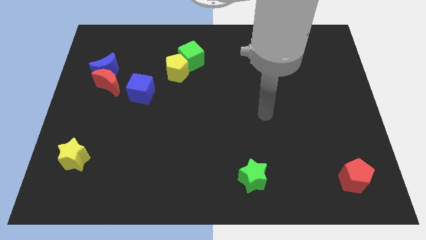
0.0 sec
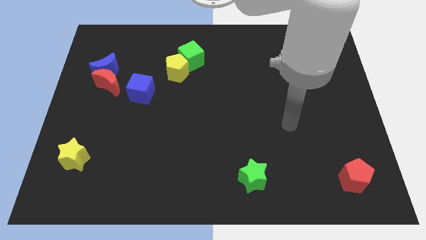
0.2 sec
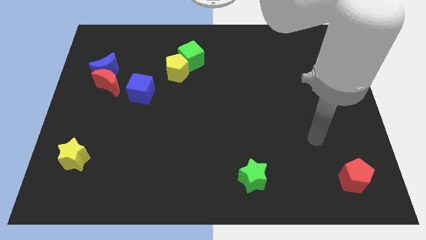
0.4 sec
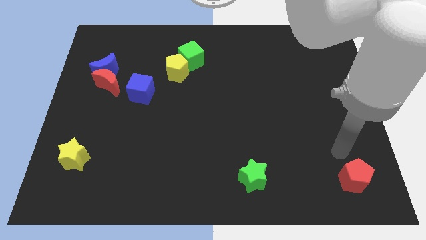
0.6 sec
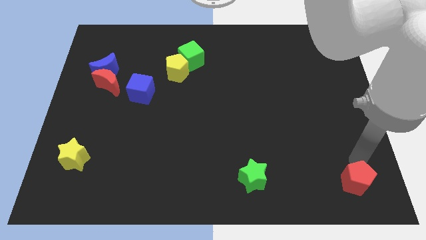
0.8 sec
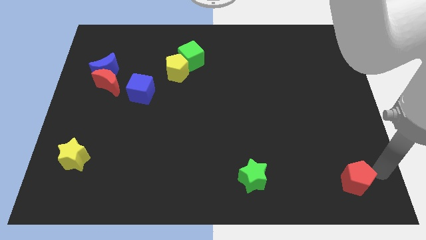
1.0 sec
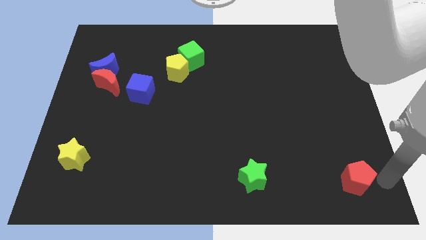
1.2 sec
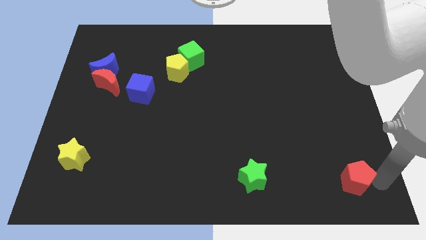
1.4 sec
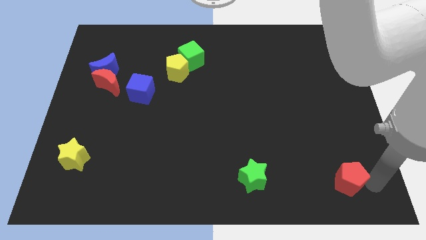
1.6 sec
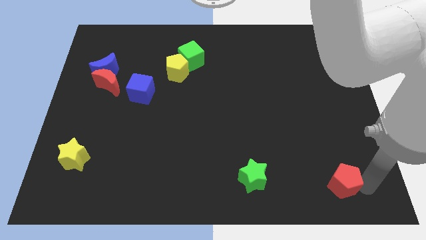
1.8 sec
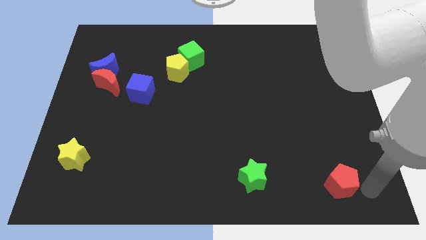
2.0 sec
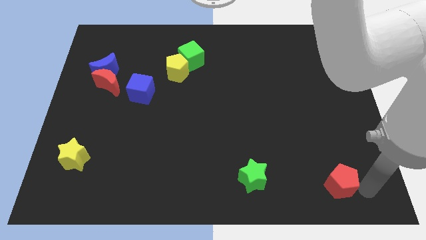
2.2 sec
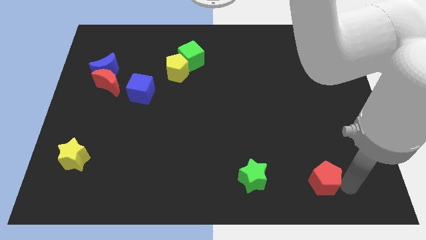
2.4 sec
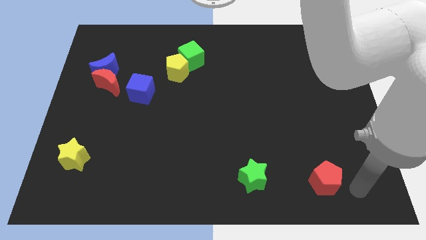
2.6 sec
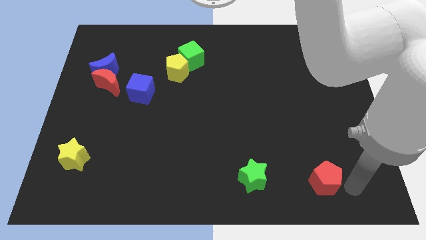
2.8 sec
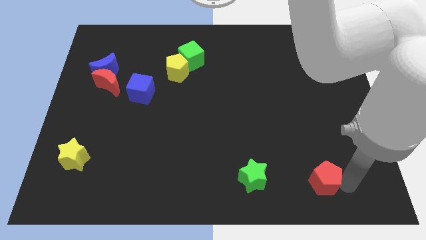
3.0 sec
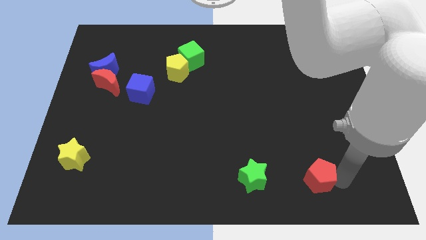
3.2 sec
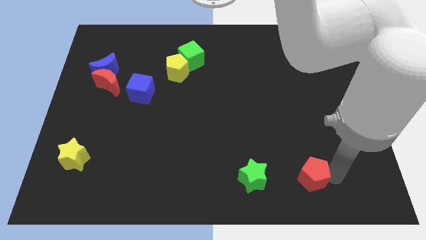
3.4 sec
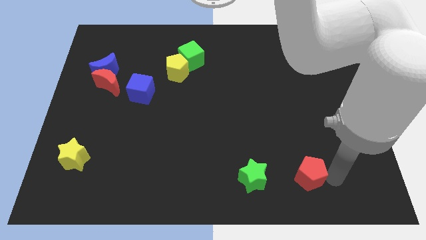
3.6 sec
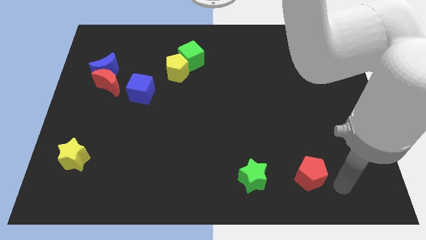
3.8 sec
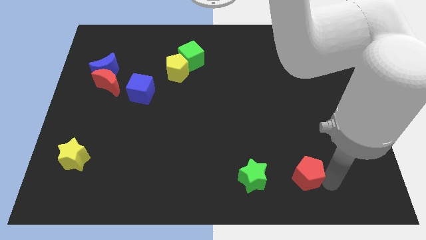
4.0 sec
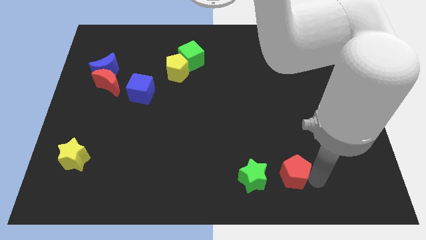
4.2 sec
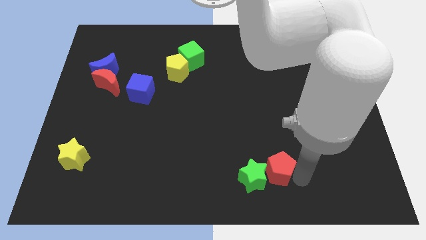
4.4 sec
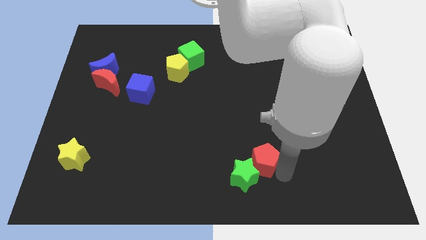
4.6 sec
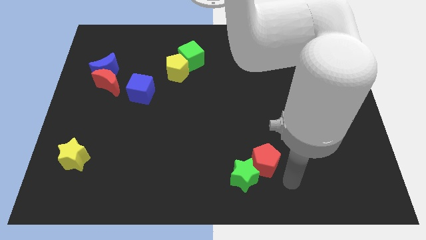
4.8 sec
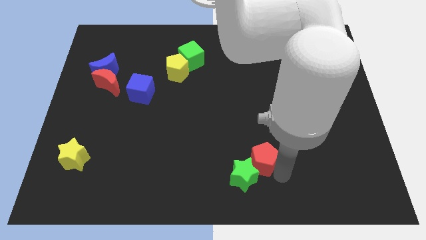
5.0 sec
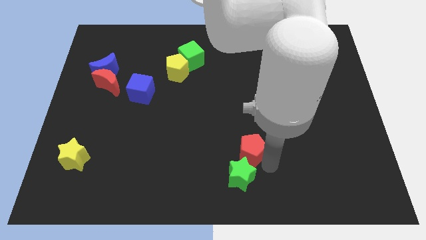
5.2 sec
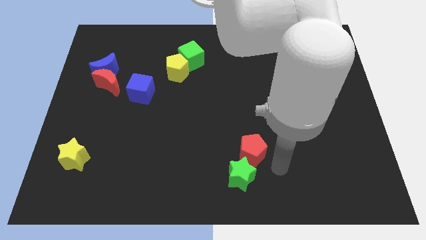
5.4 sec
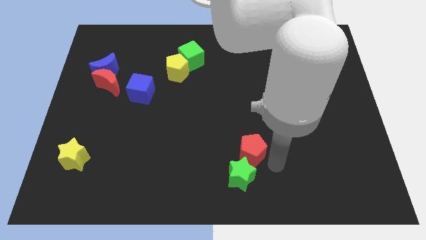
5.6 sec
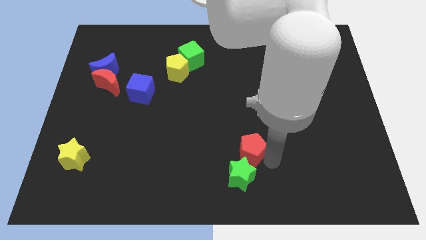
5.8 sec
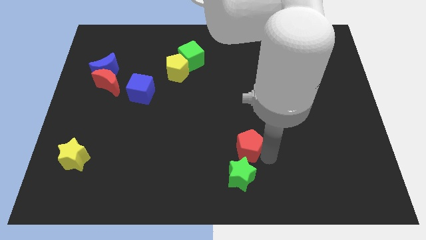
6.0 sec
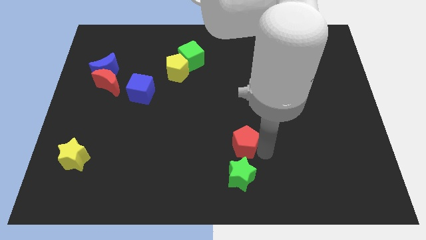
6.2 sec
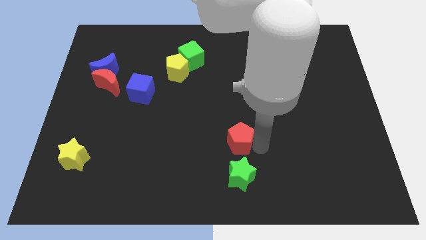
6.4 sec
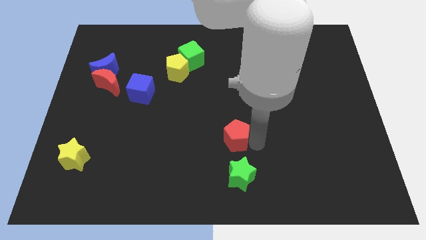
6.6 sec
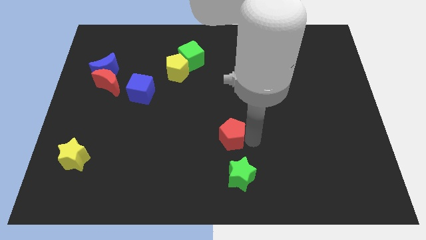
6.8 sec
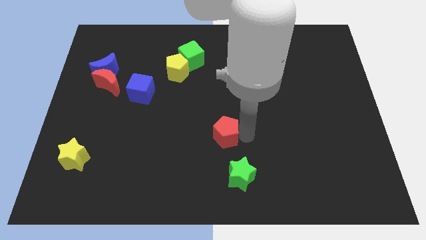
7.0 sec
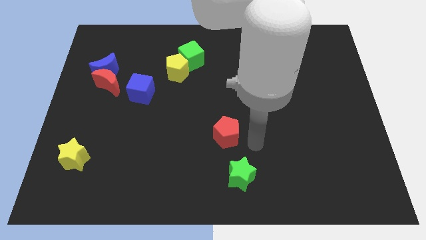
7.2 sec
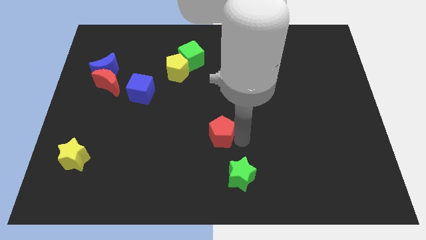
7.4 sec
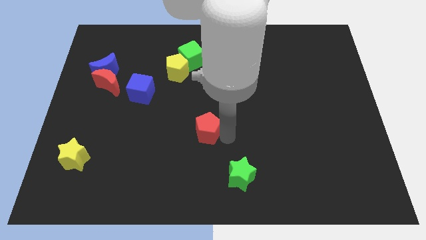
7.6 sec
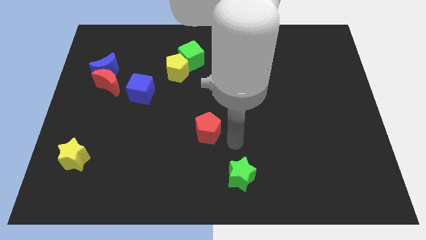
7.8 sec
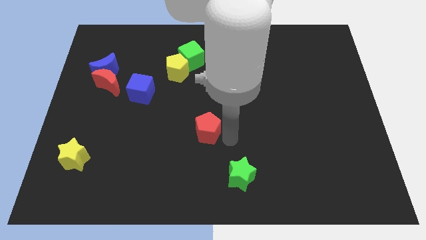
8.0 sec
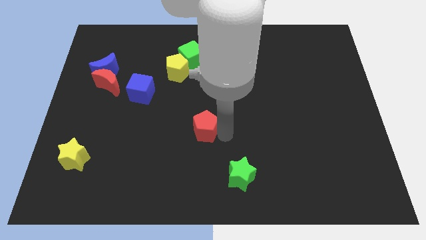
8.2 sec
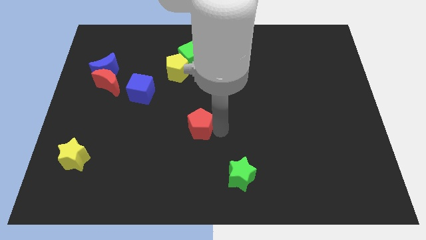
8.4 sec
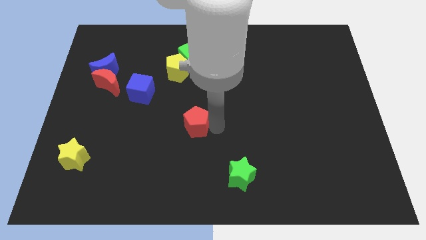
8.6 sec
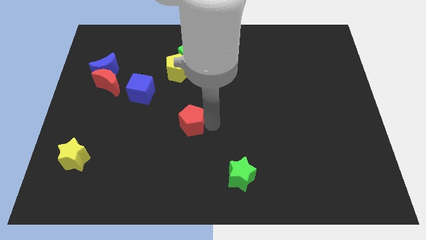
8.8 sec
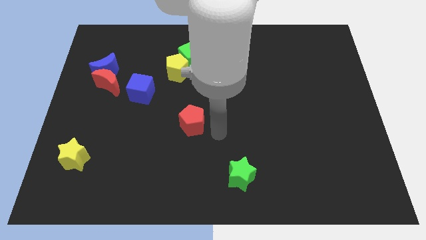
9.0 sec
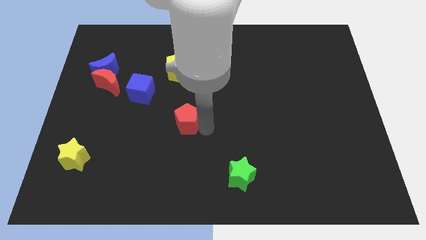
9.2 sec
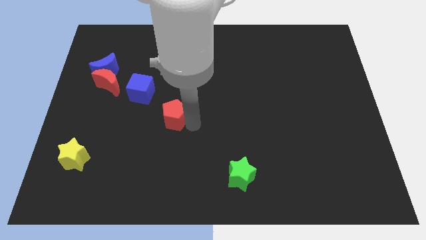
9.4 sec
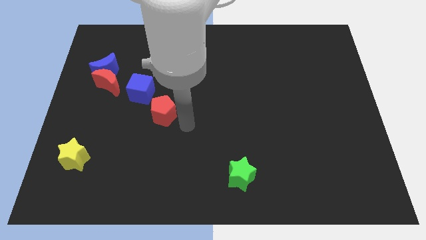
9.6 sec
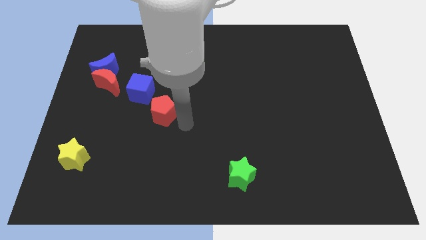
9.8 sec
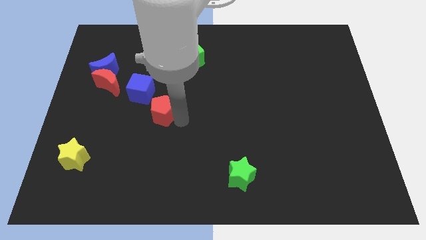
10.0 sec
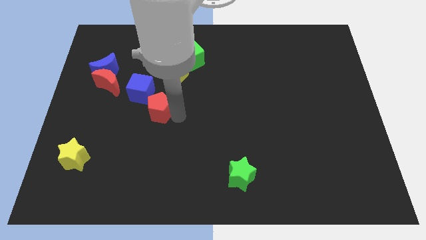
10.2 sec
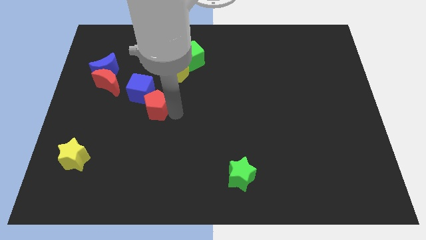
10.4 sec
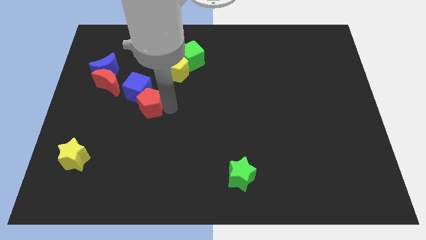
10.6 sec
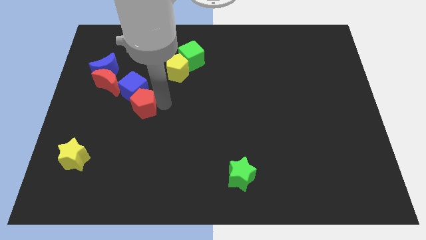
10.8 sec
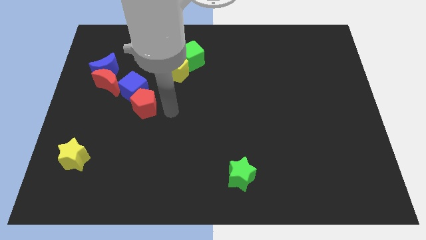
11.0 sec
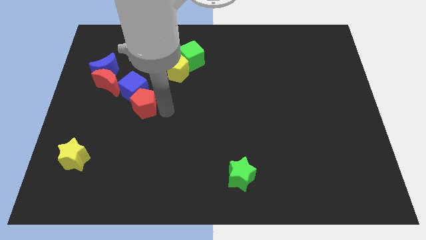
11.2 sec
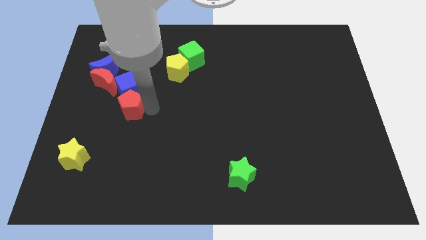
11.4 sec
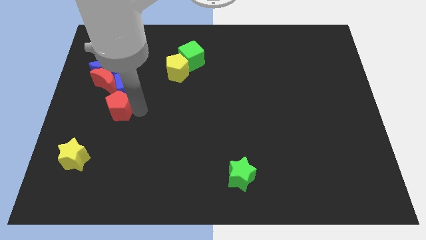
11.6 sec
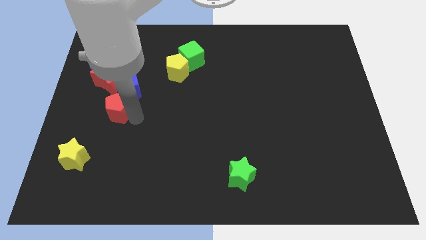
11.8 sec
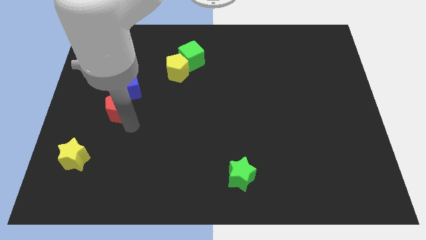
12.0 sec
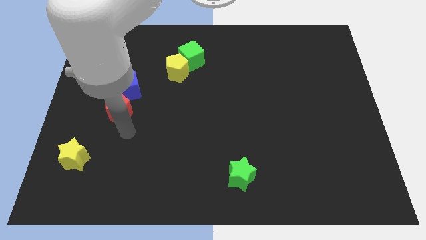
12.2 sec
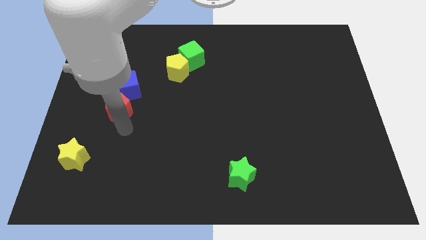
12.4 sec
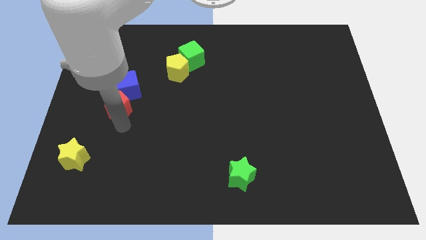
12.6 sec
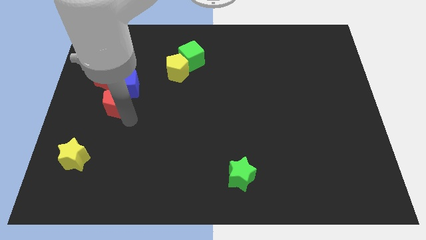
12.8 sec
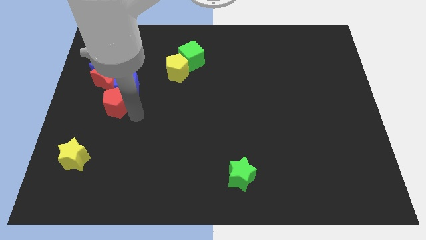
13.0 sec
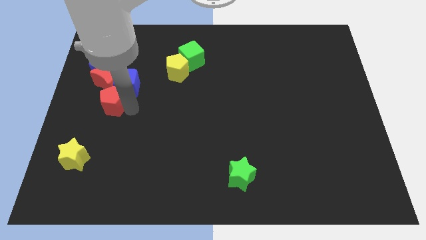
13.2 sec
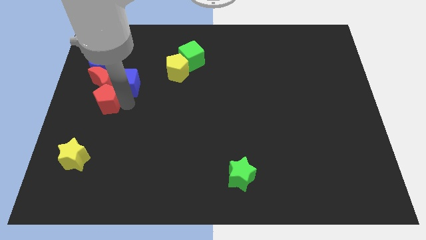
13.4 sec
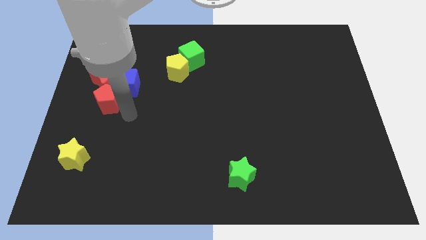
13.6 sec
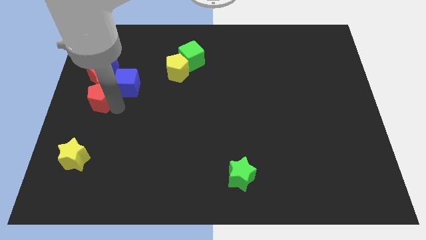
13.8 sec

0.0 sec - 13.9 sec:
move the red pentagon to the left of the blue cube
